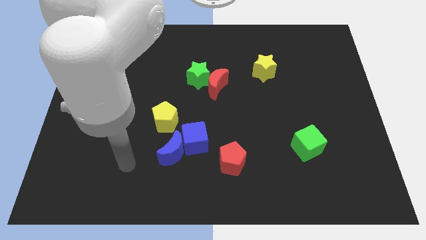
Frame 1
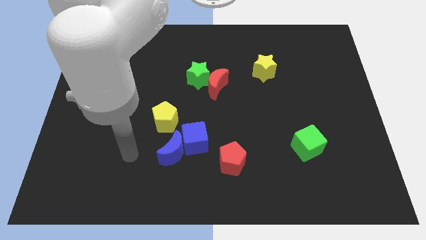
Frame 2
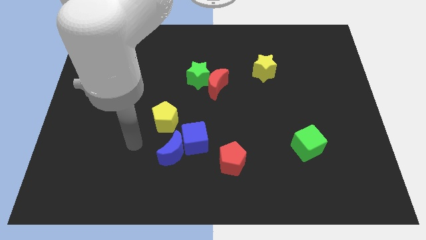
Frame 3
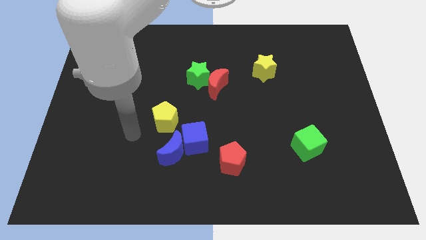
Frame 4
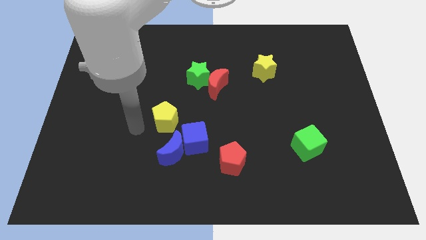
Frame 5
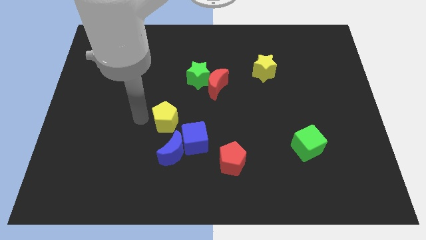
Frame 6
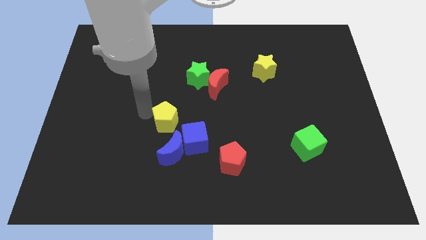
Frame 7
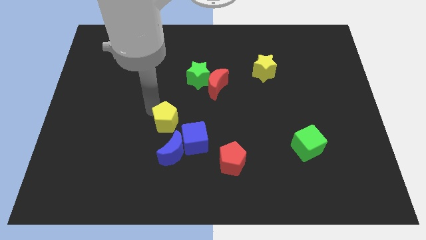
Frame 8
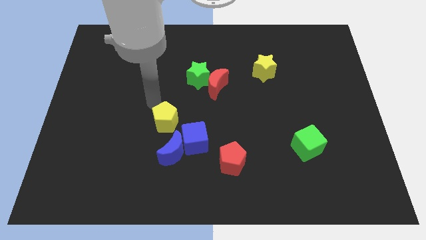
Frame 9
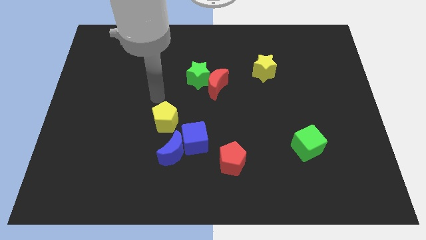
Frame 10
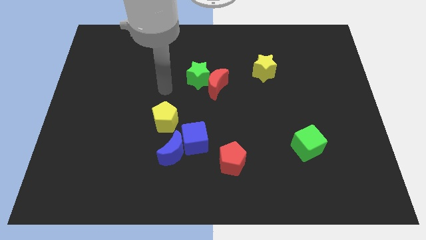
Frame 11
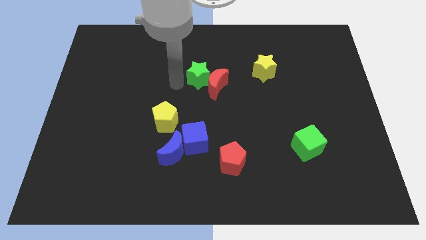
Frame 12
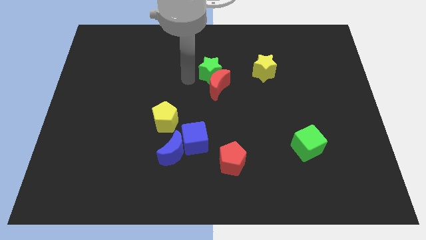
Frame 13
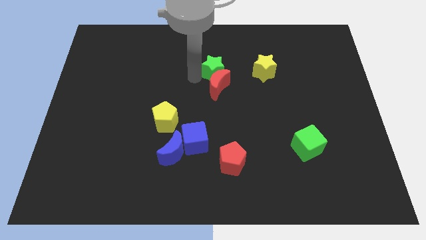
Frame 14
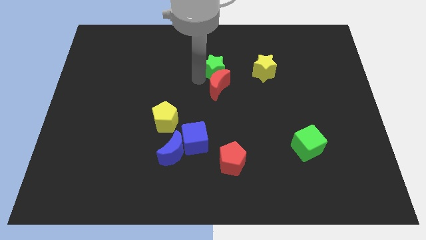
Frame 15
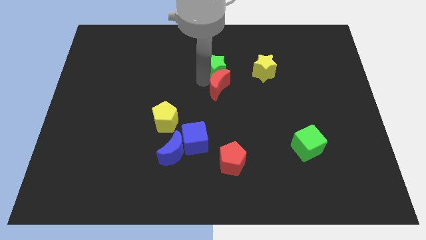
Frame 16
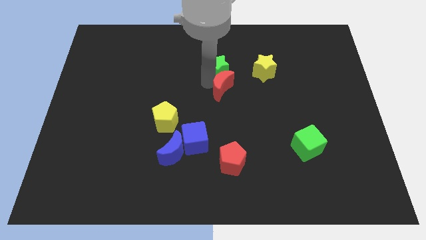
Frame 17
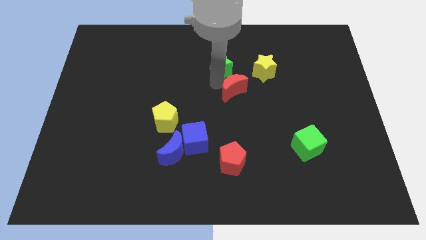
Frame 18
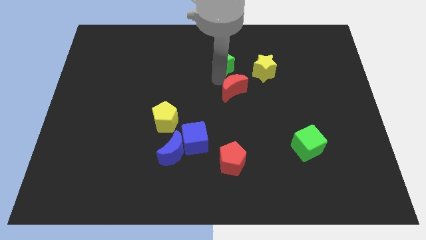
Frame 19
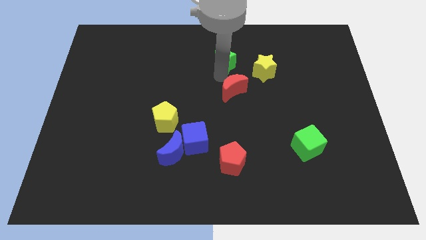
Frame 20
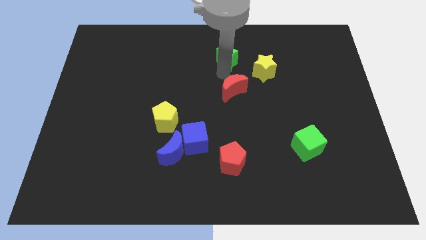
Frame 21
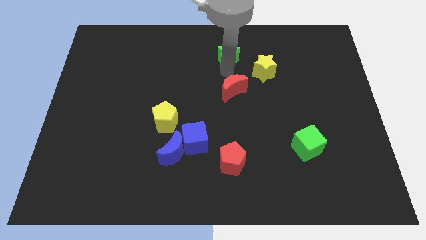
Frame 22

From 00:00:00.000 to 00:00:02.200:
pull the red moon apart from the green star

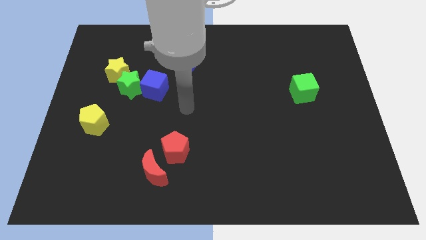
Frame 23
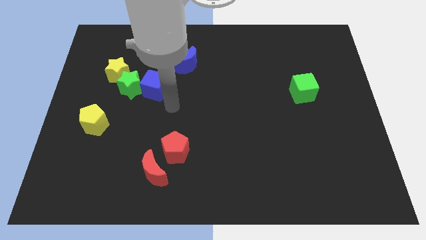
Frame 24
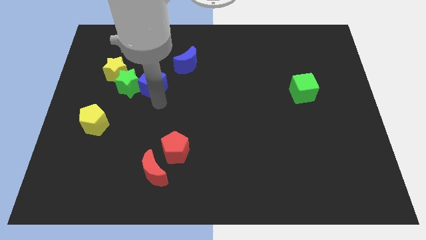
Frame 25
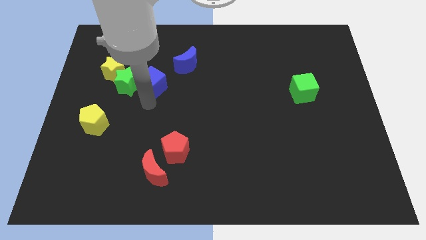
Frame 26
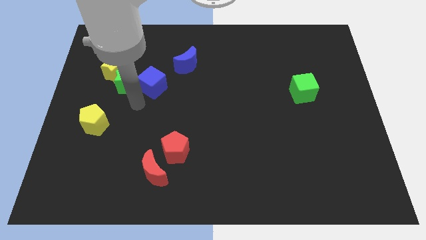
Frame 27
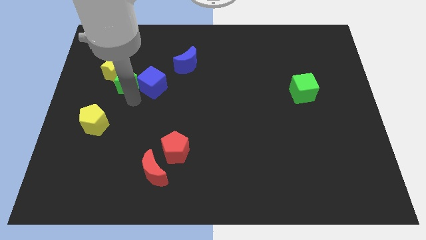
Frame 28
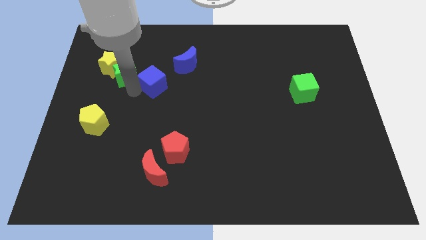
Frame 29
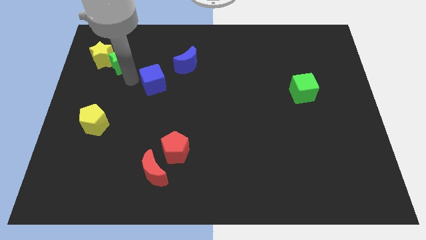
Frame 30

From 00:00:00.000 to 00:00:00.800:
move the blue cube away from the green star

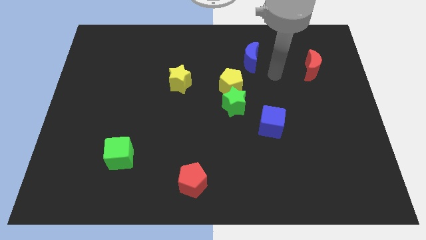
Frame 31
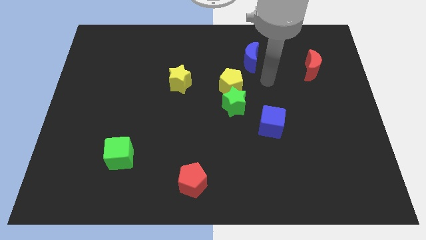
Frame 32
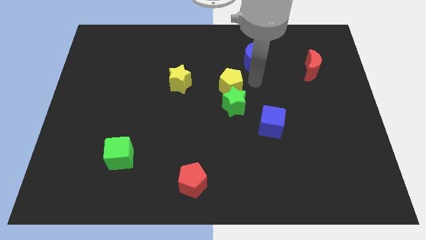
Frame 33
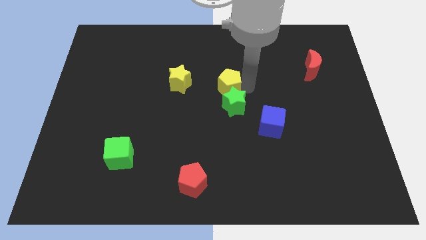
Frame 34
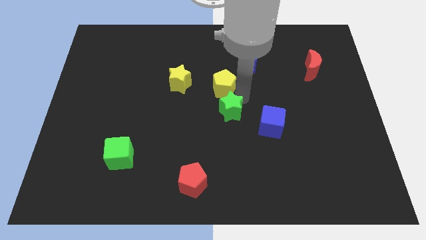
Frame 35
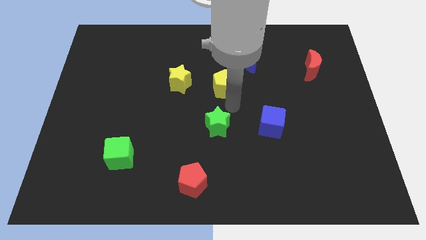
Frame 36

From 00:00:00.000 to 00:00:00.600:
separate the yellow pentagon from the green star

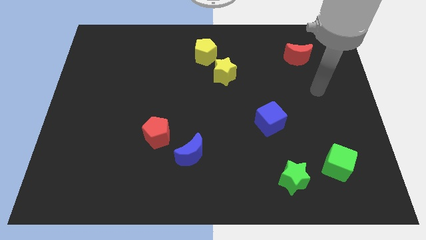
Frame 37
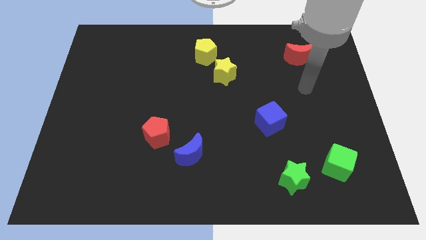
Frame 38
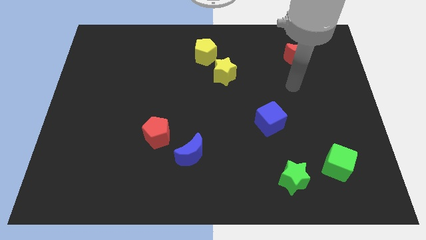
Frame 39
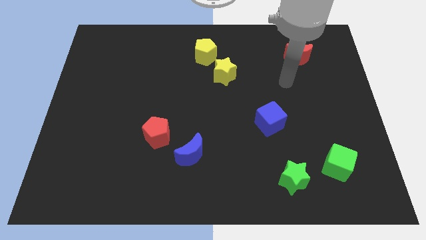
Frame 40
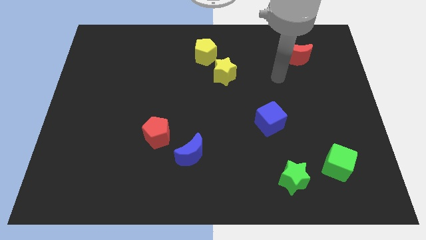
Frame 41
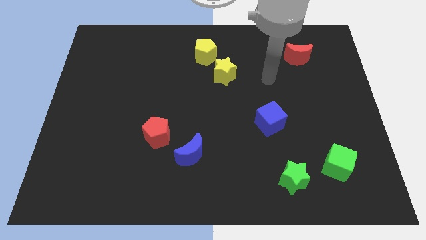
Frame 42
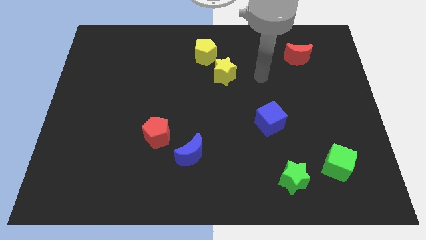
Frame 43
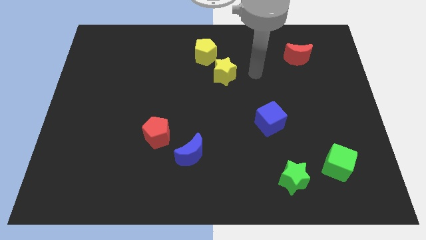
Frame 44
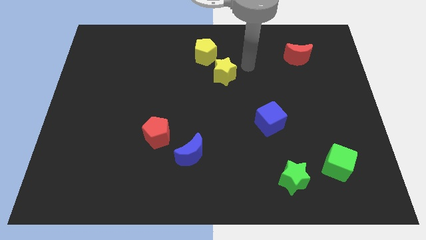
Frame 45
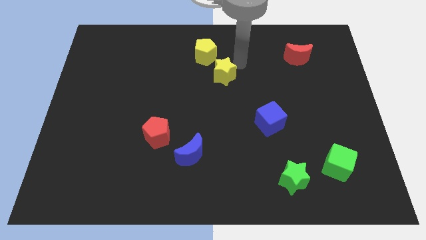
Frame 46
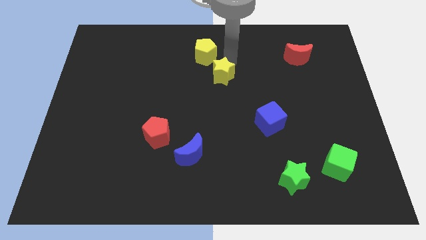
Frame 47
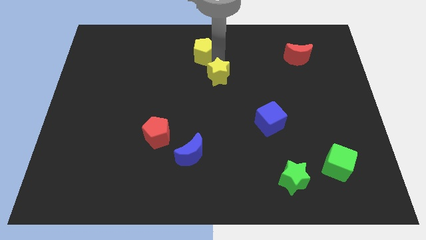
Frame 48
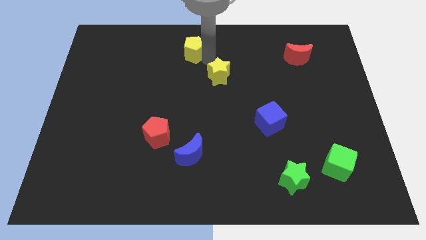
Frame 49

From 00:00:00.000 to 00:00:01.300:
pull the yellow star apart from the yellow pentagon

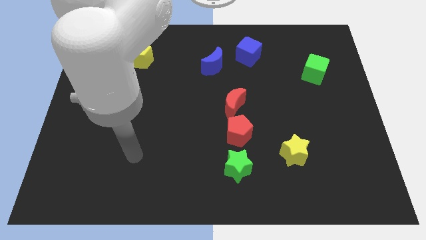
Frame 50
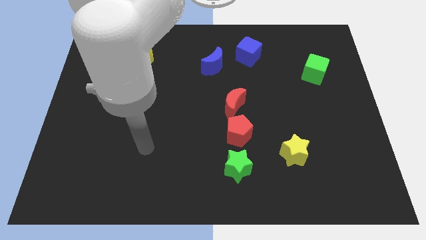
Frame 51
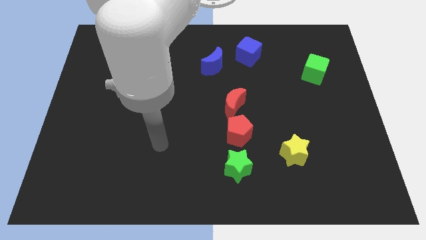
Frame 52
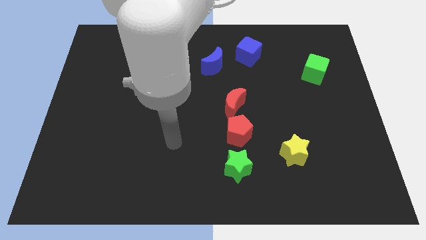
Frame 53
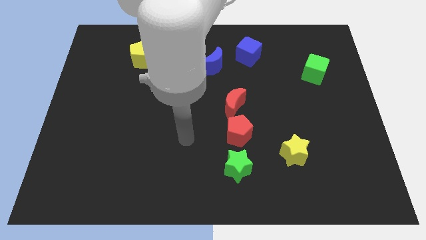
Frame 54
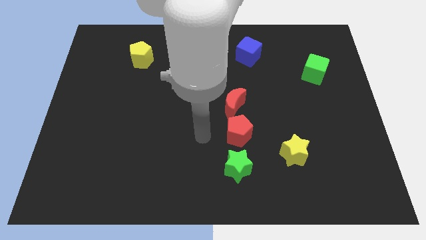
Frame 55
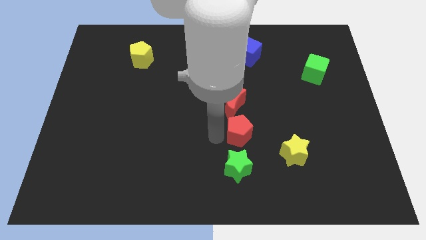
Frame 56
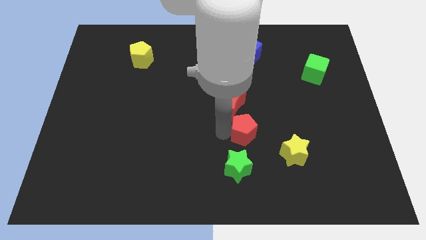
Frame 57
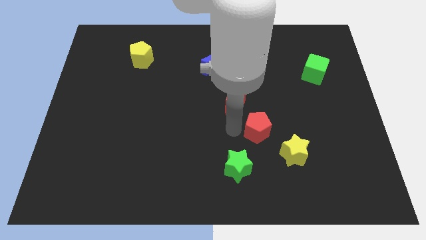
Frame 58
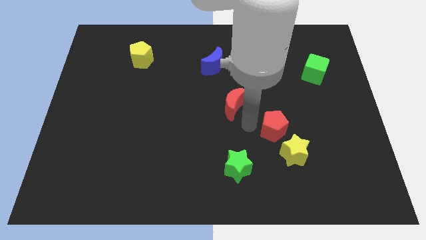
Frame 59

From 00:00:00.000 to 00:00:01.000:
separate the red moon from the red pentagon

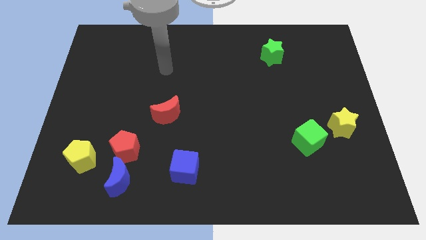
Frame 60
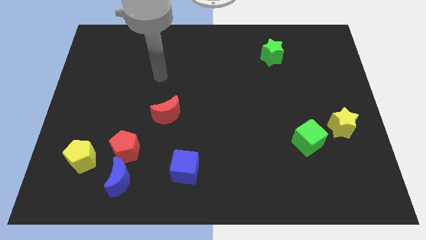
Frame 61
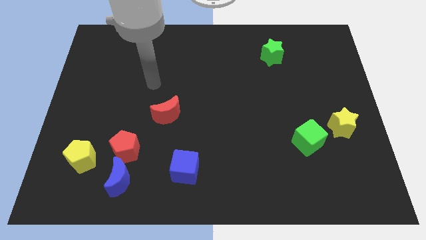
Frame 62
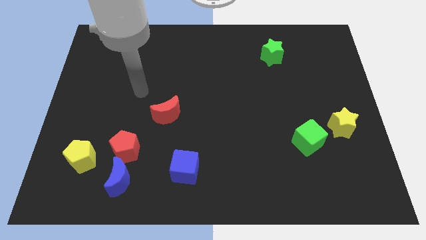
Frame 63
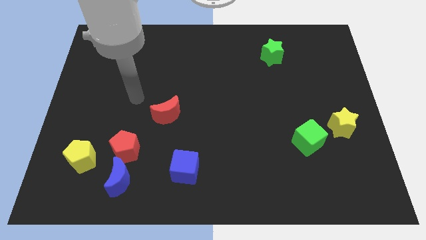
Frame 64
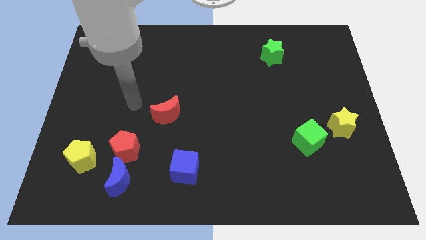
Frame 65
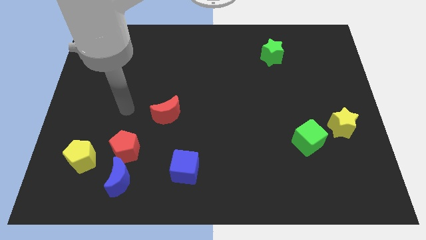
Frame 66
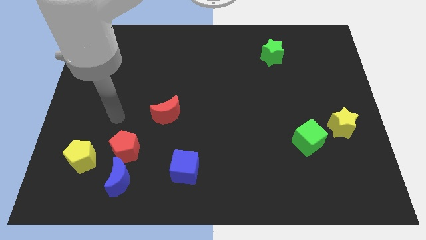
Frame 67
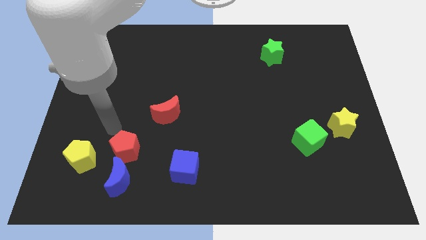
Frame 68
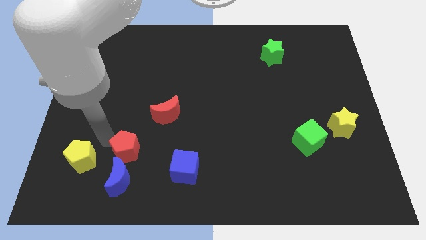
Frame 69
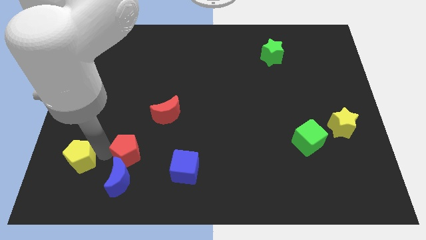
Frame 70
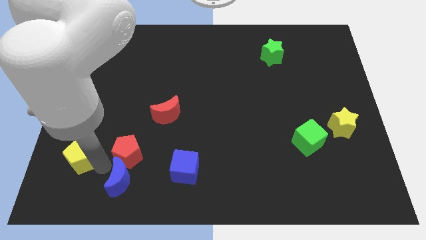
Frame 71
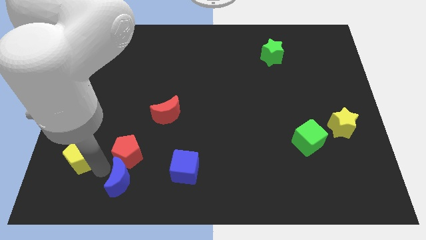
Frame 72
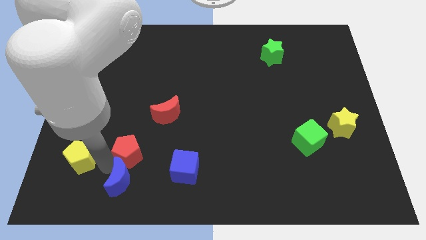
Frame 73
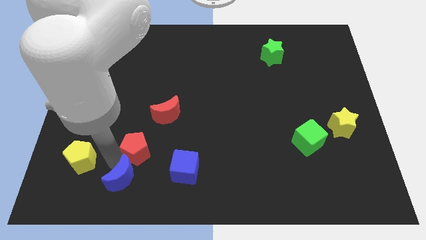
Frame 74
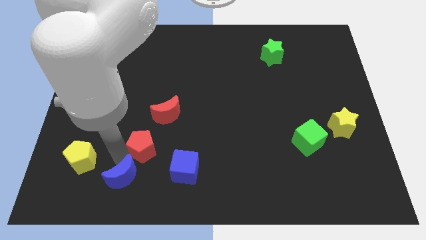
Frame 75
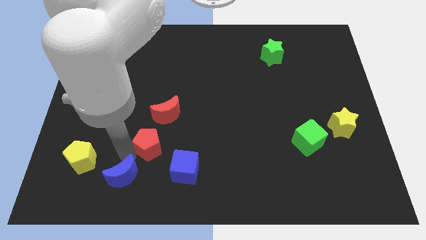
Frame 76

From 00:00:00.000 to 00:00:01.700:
pull the red pentagon apart from the blue moon and yellow pentagon

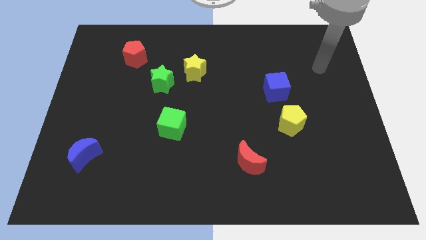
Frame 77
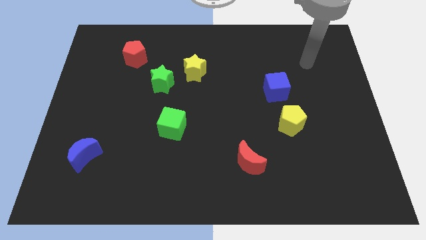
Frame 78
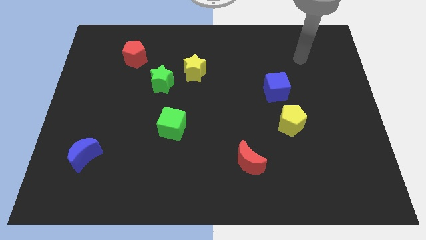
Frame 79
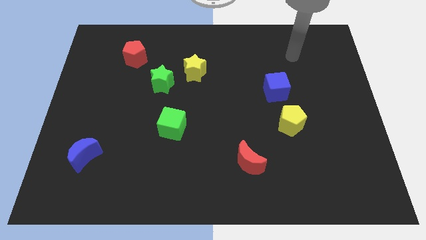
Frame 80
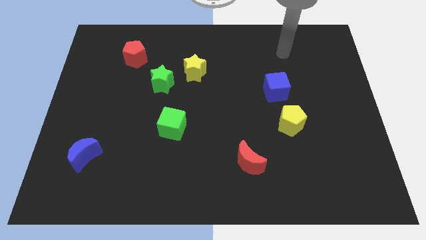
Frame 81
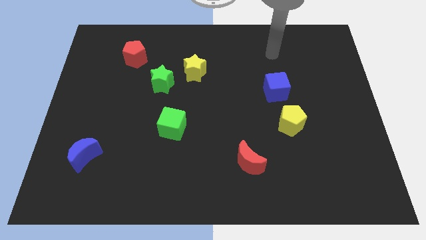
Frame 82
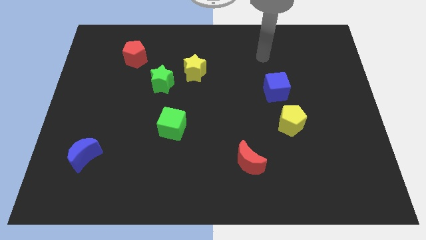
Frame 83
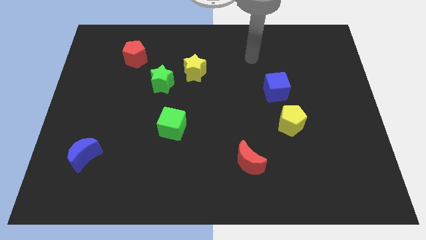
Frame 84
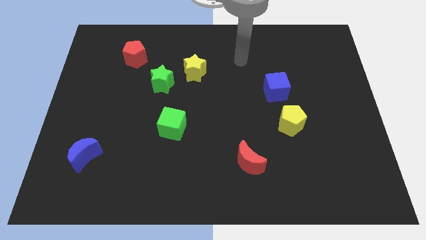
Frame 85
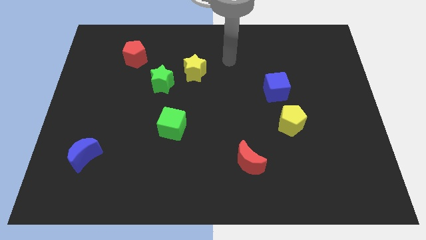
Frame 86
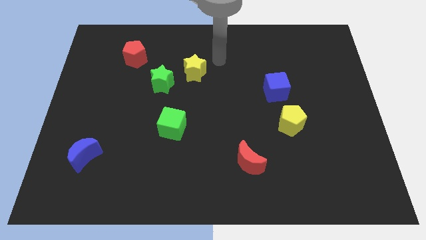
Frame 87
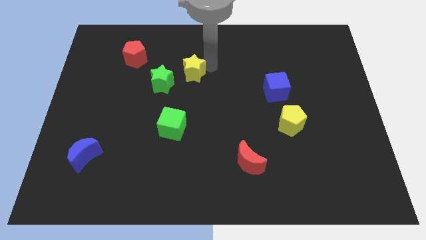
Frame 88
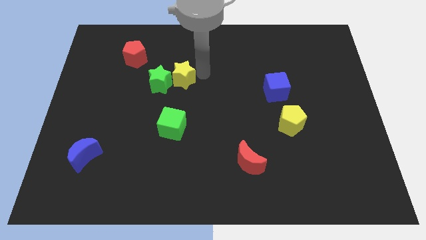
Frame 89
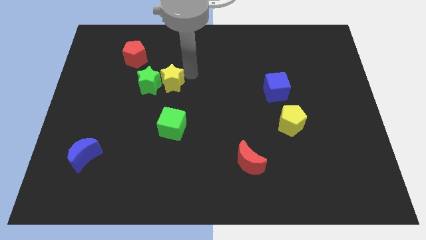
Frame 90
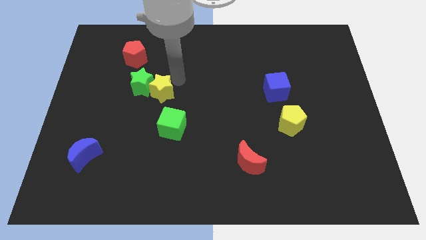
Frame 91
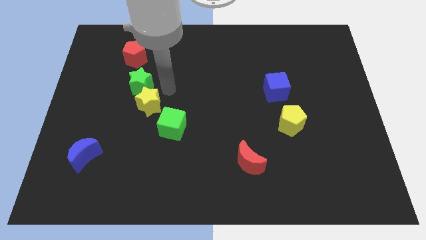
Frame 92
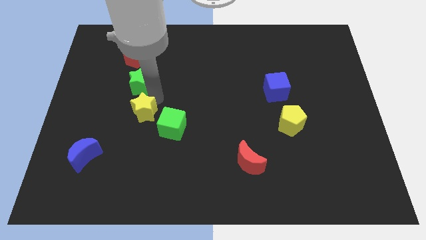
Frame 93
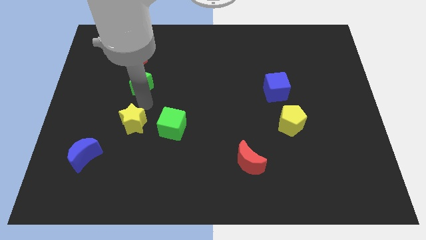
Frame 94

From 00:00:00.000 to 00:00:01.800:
pull the green star apart from the yellow star
